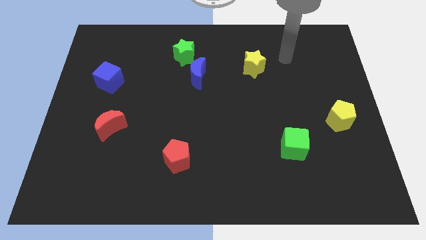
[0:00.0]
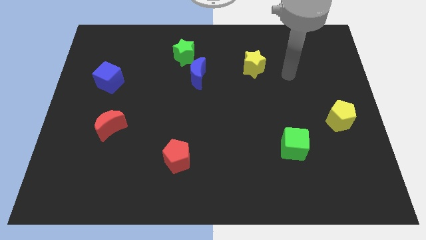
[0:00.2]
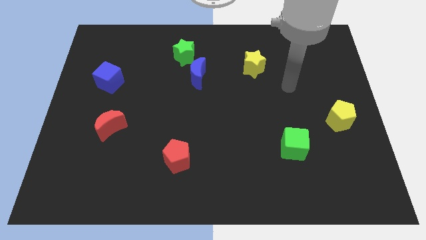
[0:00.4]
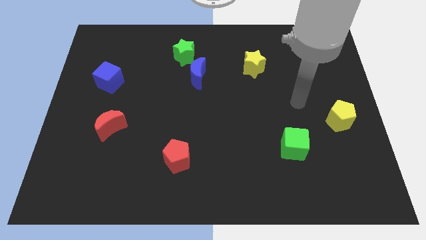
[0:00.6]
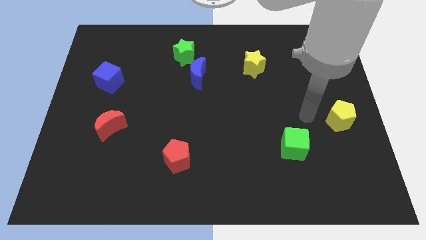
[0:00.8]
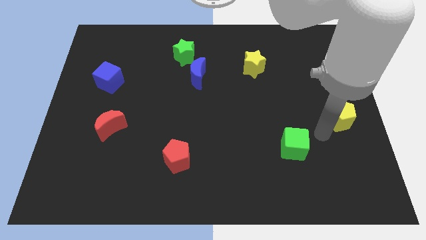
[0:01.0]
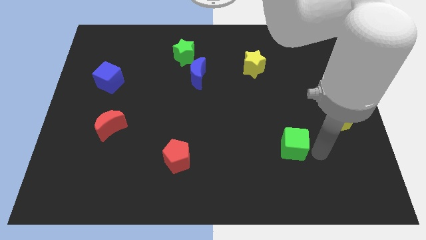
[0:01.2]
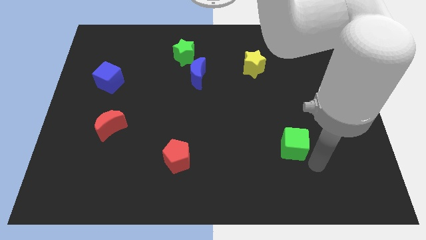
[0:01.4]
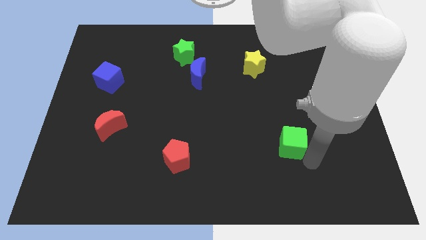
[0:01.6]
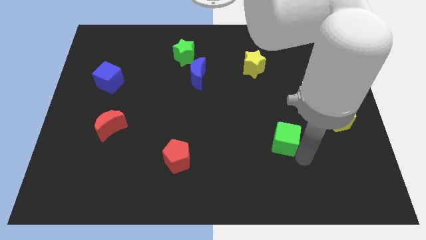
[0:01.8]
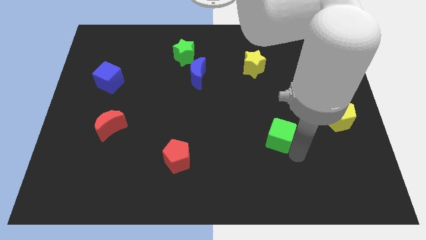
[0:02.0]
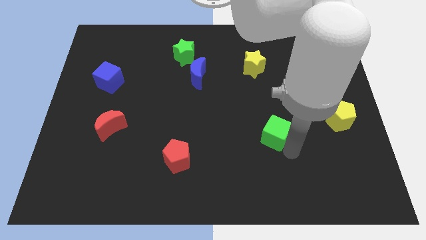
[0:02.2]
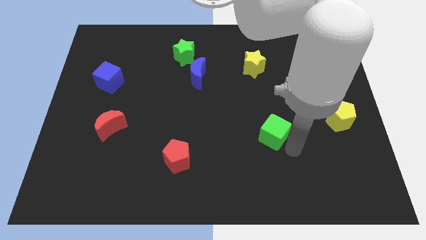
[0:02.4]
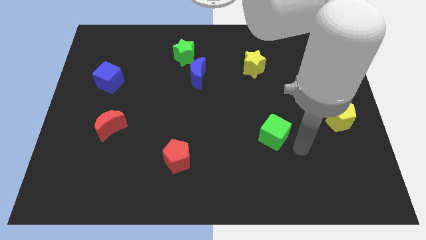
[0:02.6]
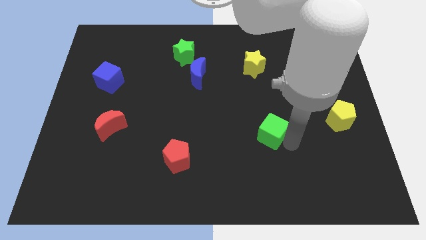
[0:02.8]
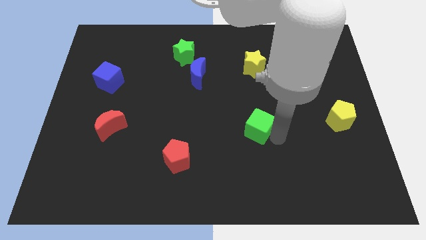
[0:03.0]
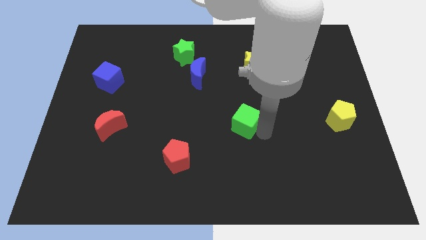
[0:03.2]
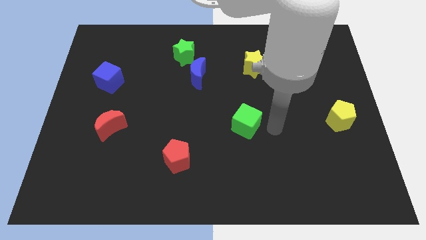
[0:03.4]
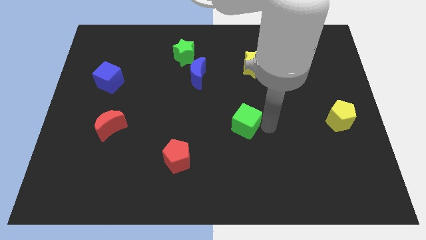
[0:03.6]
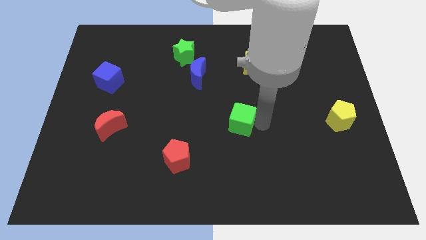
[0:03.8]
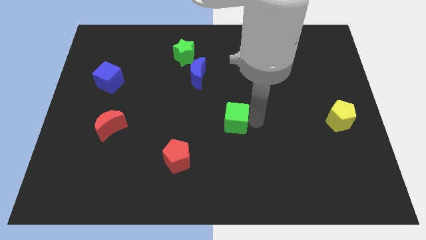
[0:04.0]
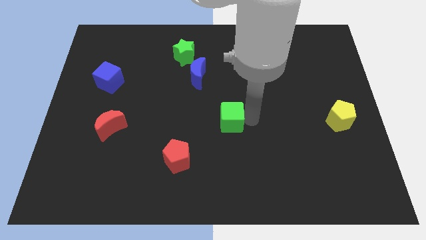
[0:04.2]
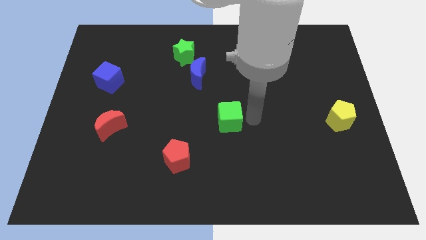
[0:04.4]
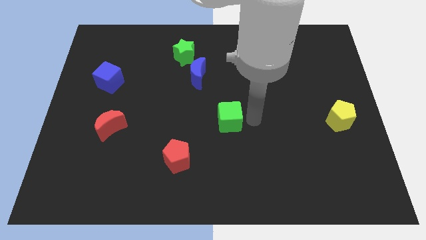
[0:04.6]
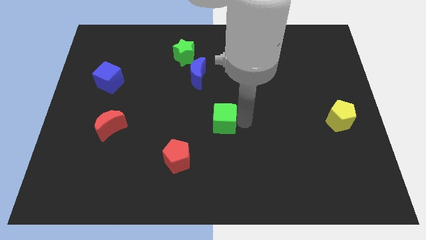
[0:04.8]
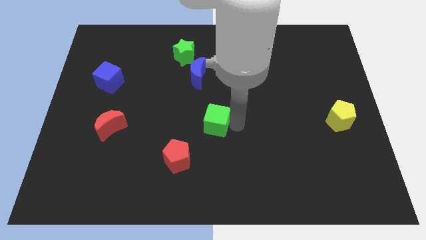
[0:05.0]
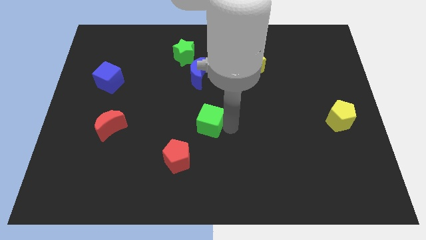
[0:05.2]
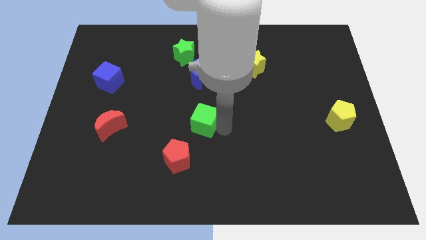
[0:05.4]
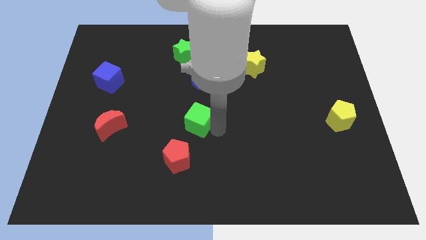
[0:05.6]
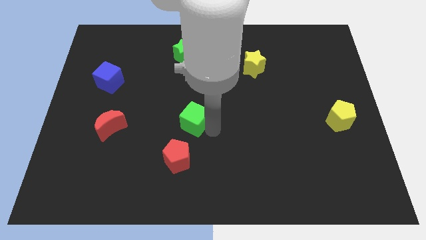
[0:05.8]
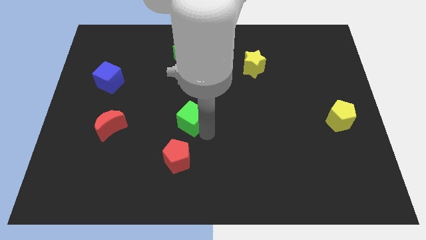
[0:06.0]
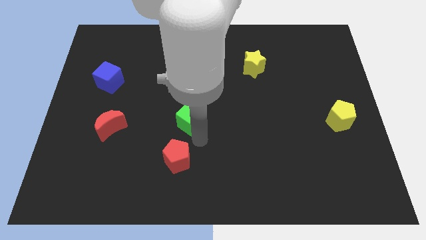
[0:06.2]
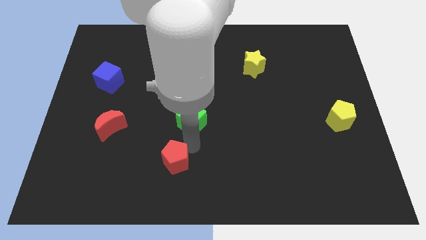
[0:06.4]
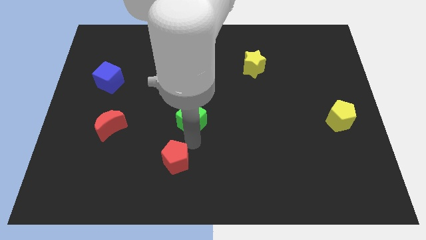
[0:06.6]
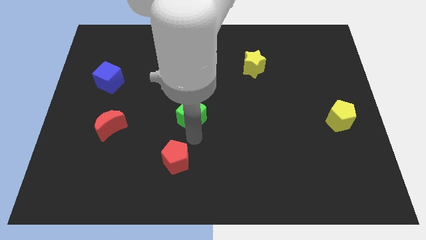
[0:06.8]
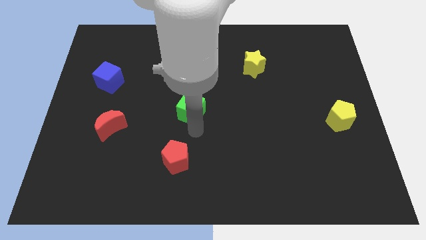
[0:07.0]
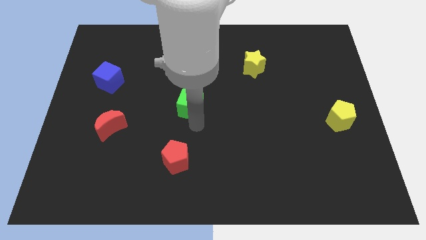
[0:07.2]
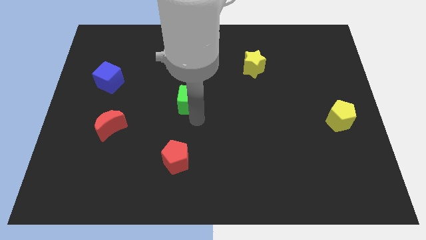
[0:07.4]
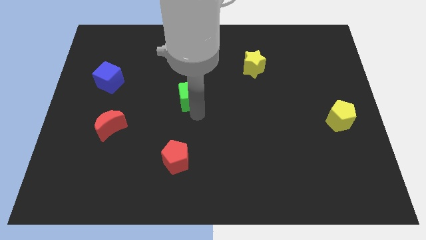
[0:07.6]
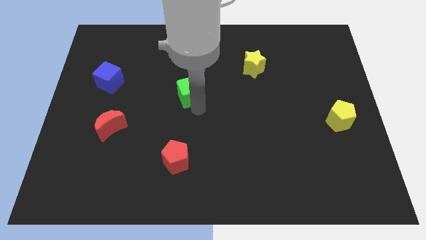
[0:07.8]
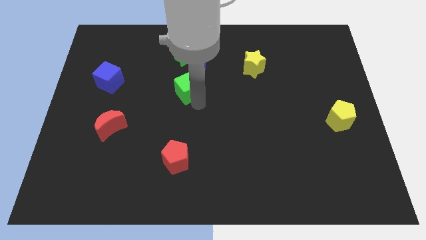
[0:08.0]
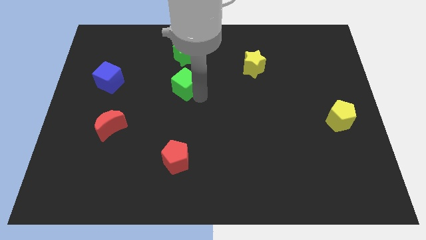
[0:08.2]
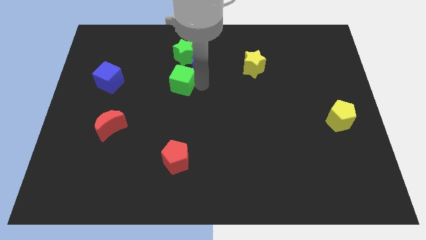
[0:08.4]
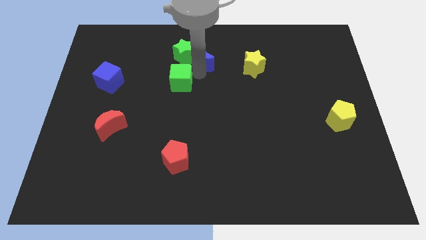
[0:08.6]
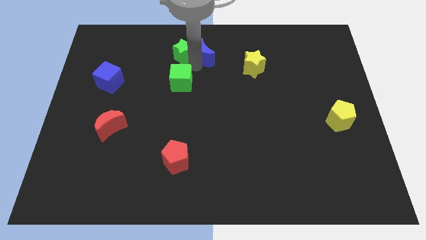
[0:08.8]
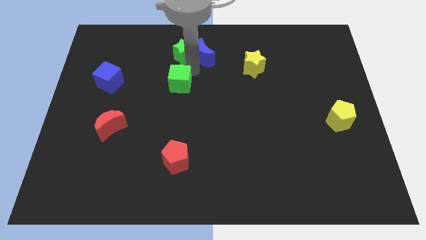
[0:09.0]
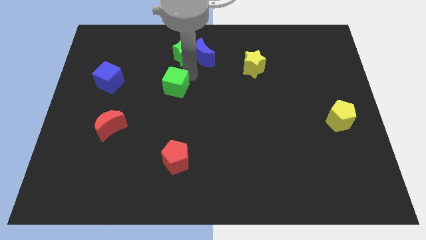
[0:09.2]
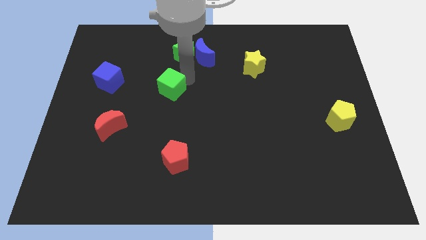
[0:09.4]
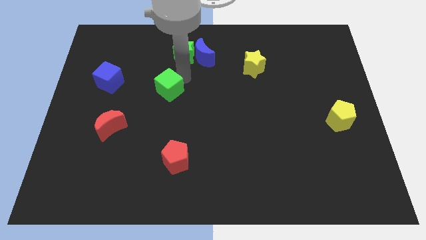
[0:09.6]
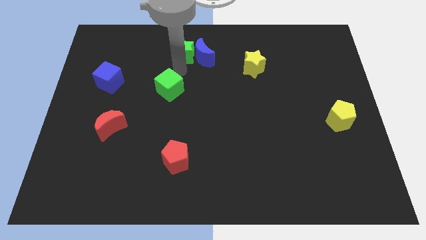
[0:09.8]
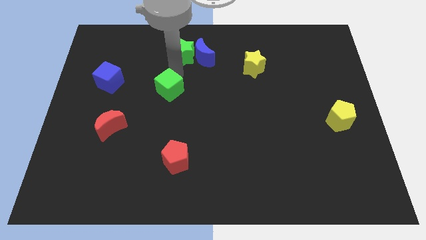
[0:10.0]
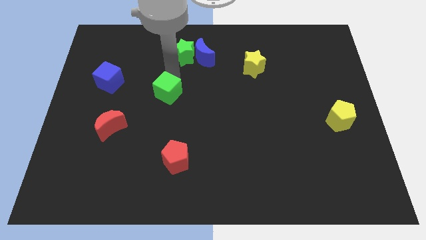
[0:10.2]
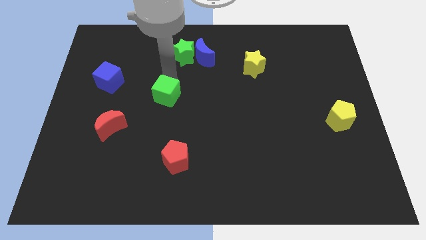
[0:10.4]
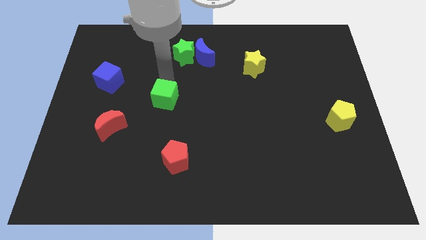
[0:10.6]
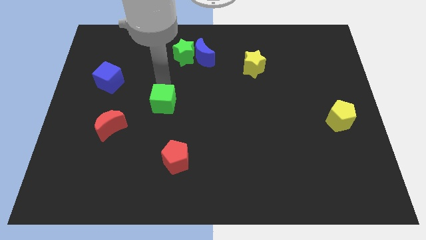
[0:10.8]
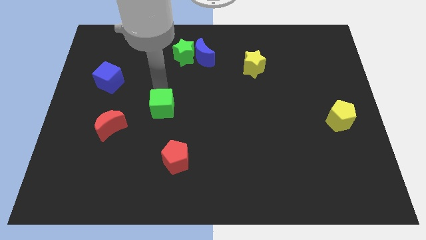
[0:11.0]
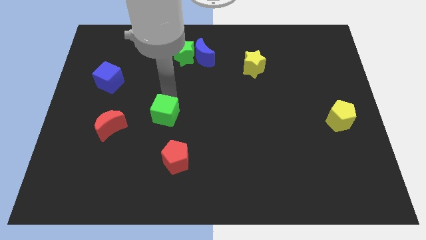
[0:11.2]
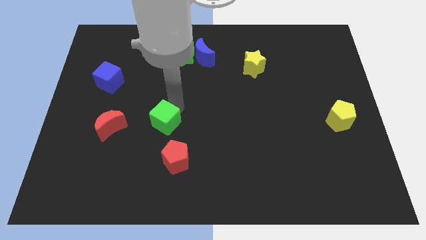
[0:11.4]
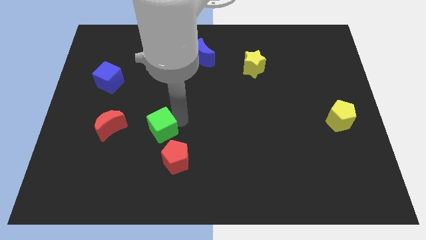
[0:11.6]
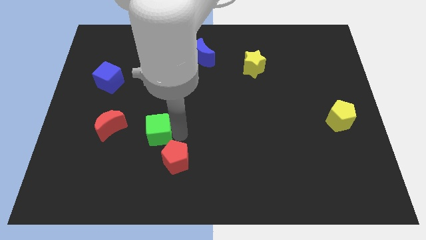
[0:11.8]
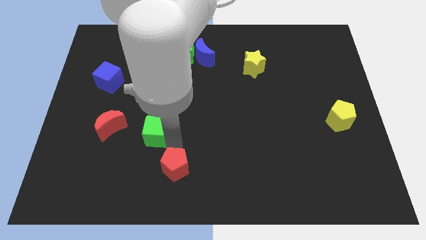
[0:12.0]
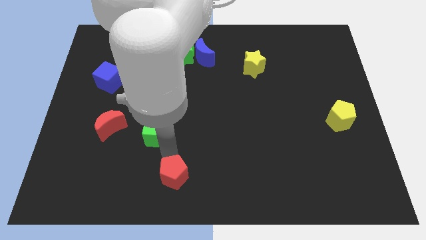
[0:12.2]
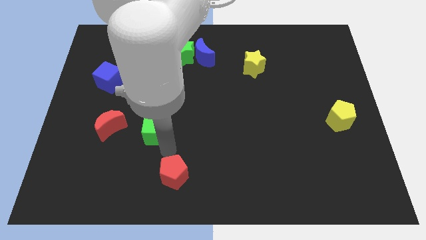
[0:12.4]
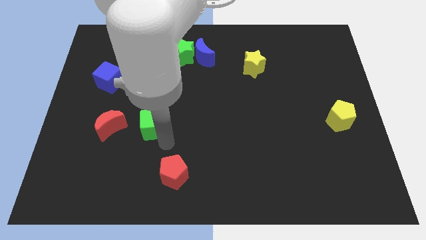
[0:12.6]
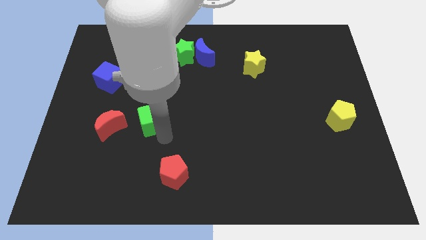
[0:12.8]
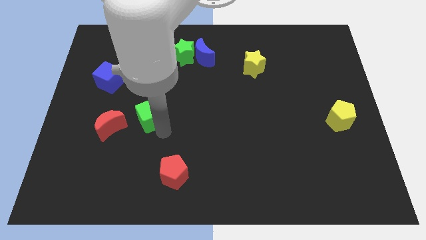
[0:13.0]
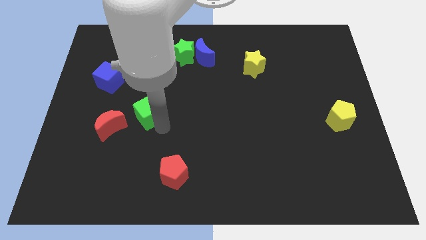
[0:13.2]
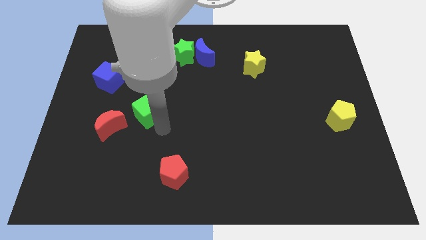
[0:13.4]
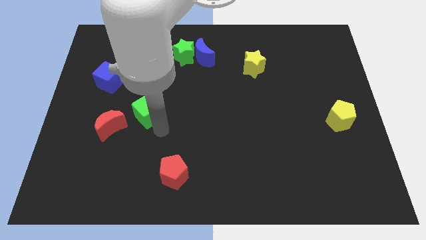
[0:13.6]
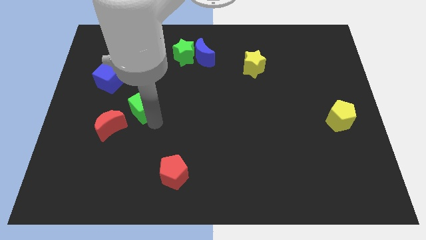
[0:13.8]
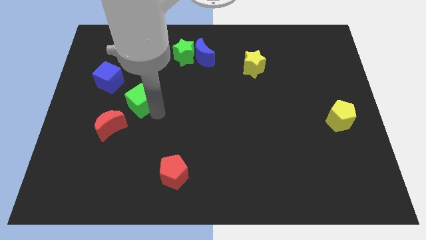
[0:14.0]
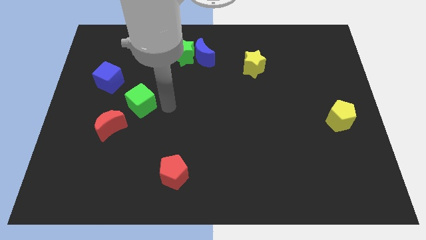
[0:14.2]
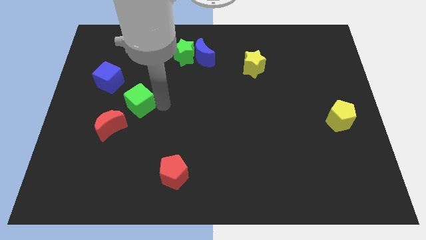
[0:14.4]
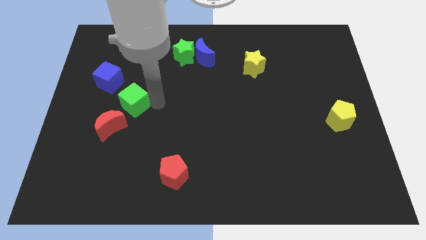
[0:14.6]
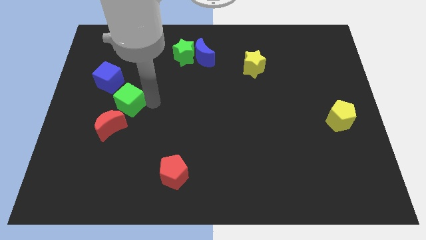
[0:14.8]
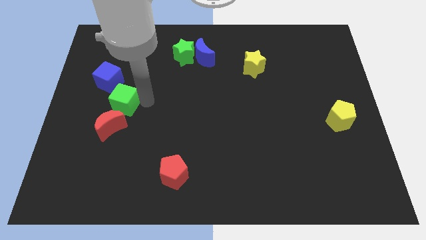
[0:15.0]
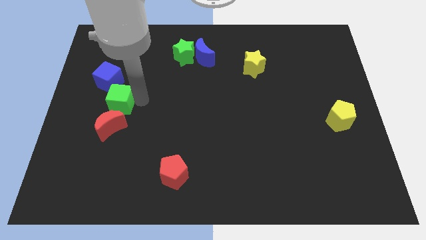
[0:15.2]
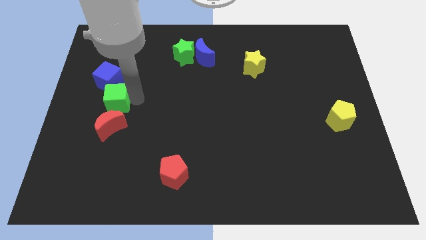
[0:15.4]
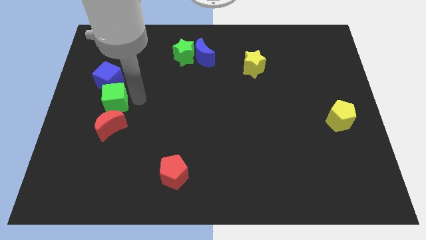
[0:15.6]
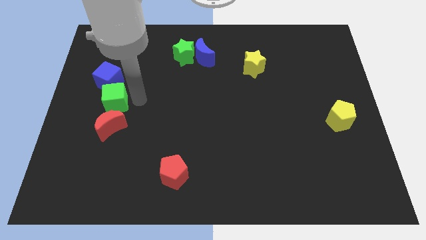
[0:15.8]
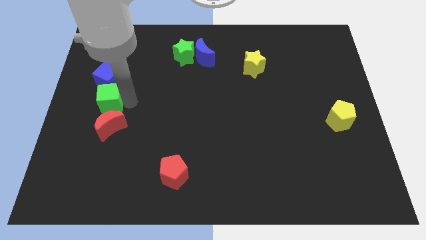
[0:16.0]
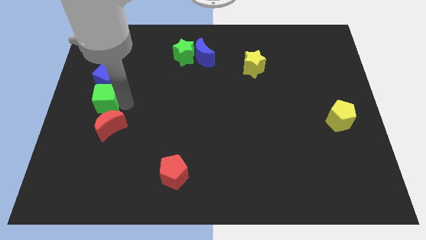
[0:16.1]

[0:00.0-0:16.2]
slide the green cube to the left side
